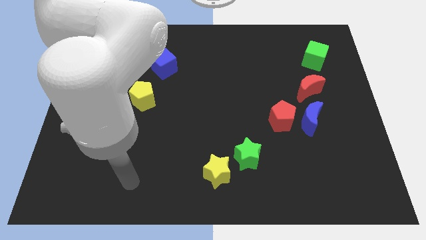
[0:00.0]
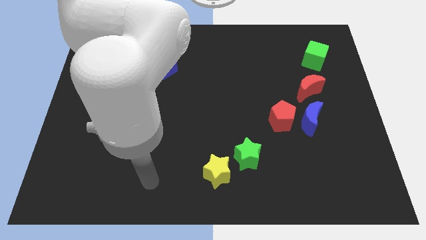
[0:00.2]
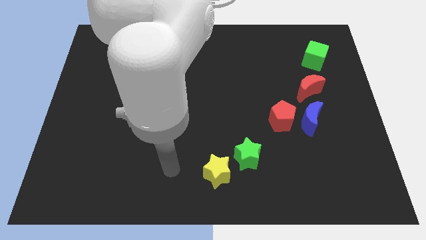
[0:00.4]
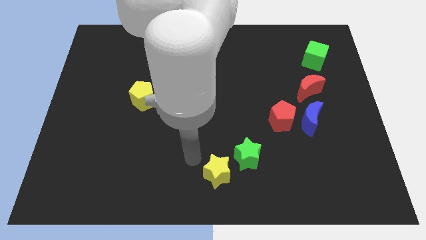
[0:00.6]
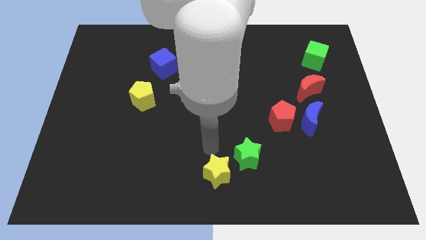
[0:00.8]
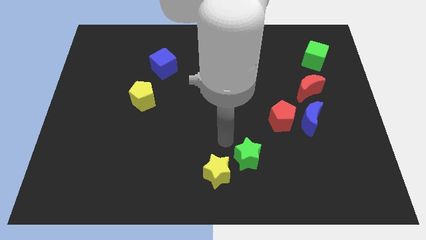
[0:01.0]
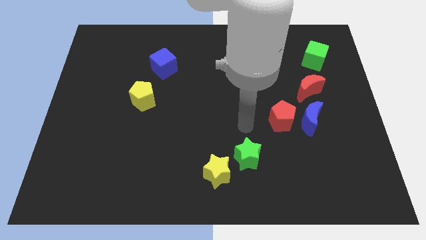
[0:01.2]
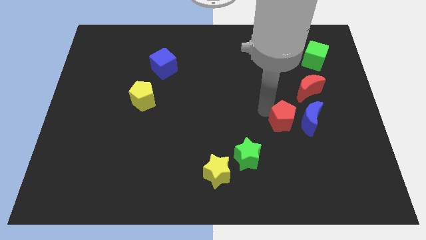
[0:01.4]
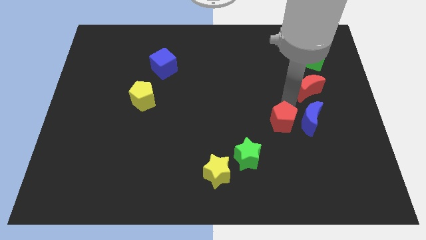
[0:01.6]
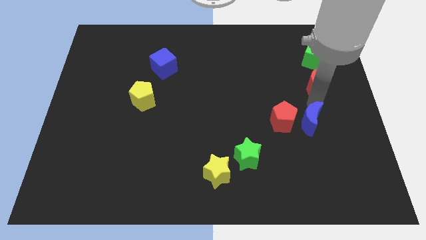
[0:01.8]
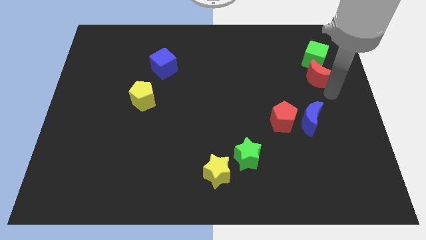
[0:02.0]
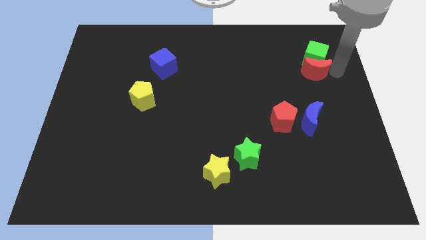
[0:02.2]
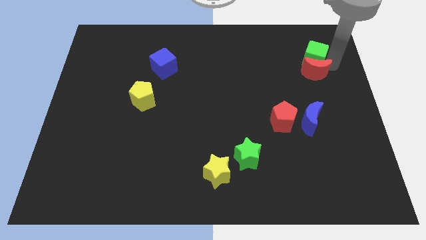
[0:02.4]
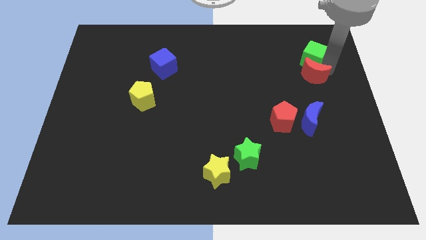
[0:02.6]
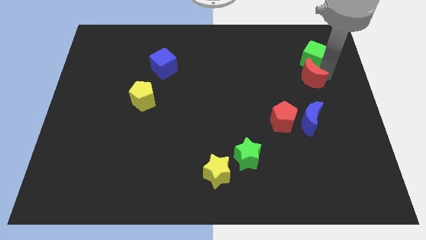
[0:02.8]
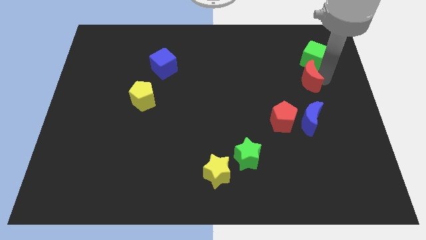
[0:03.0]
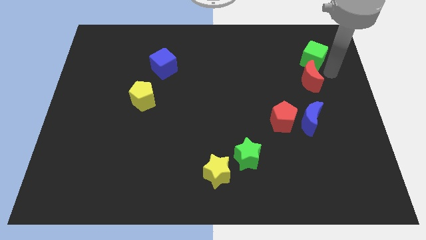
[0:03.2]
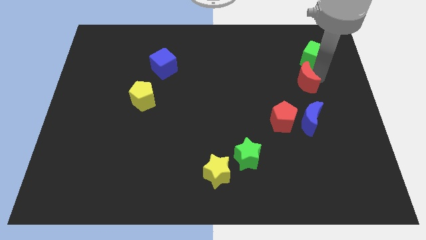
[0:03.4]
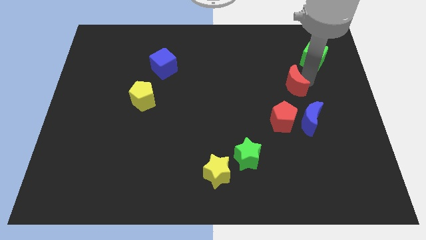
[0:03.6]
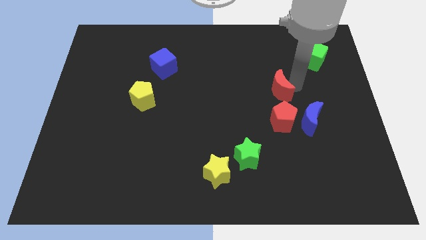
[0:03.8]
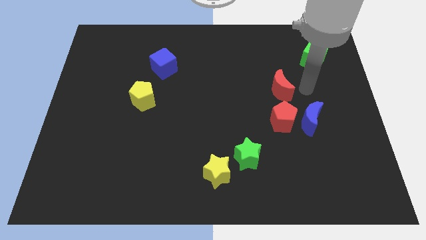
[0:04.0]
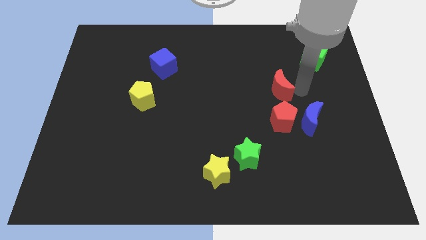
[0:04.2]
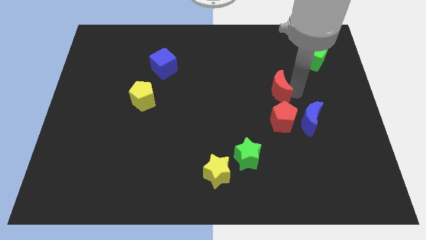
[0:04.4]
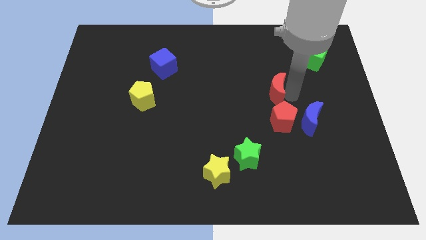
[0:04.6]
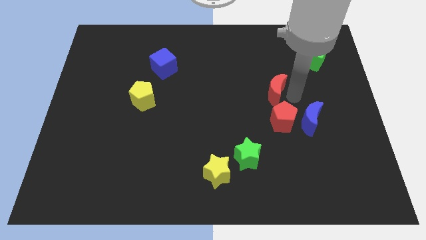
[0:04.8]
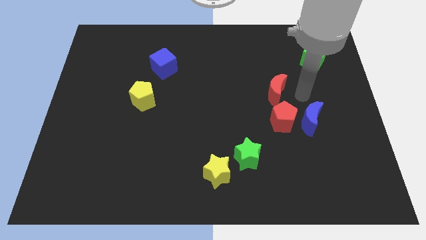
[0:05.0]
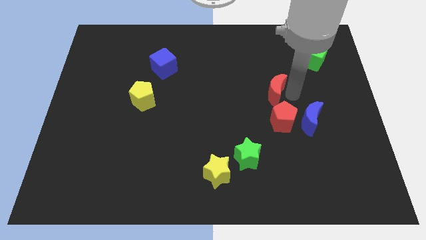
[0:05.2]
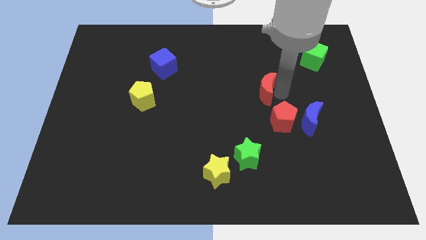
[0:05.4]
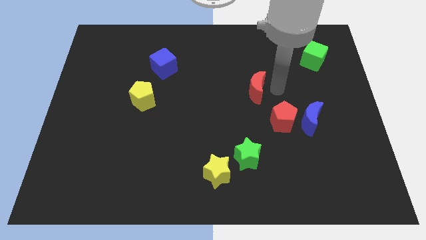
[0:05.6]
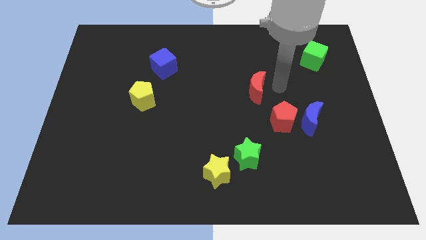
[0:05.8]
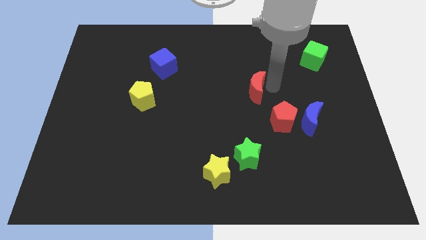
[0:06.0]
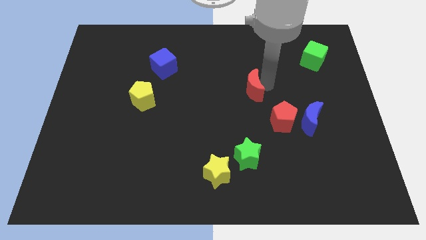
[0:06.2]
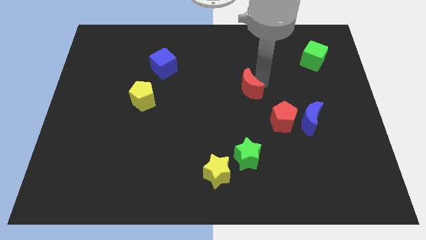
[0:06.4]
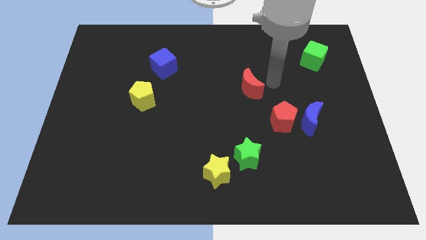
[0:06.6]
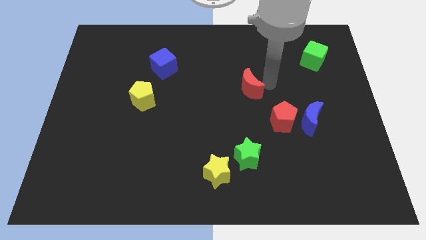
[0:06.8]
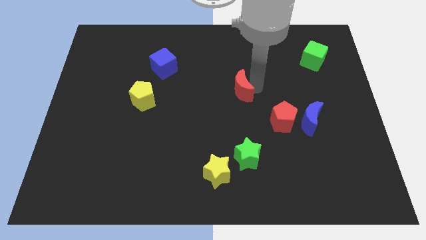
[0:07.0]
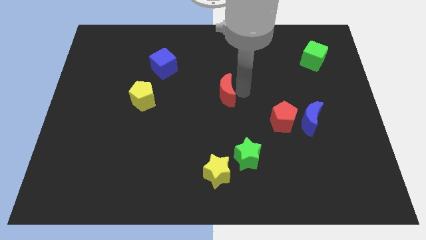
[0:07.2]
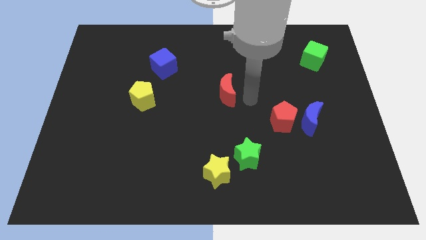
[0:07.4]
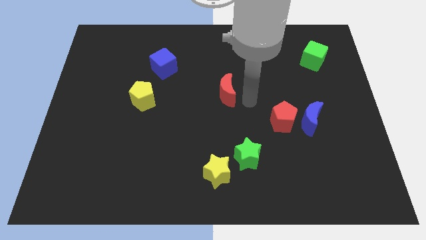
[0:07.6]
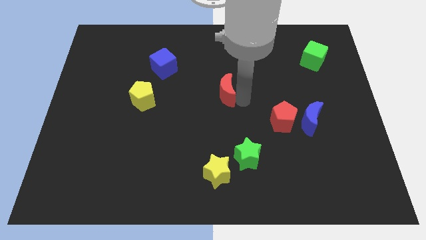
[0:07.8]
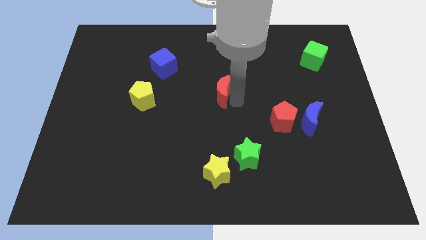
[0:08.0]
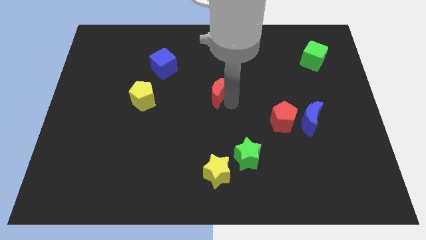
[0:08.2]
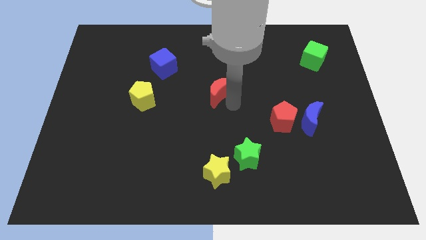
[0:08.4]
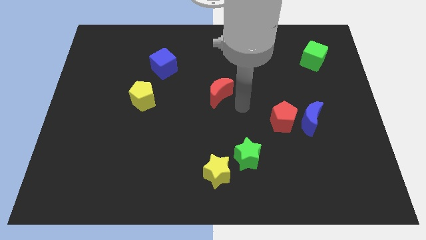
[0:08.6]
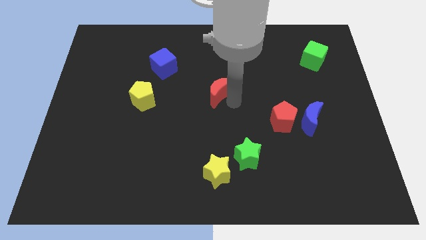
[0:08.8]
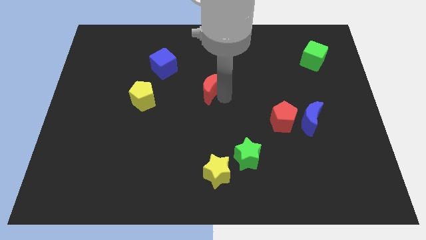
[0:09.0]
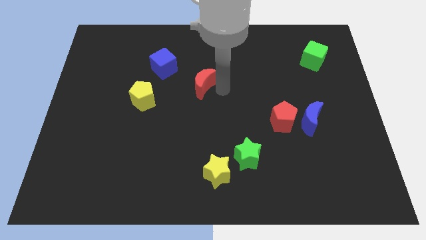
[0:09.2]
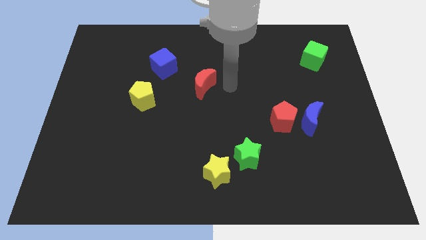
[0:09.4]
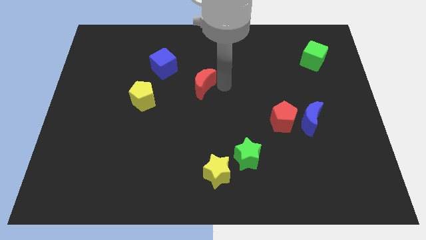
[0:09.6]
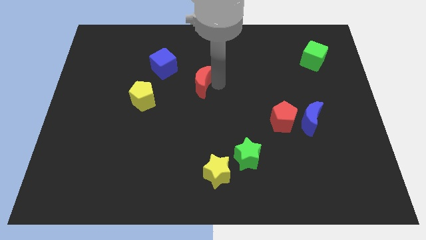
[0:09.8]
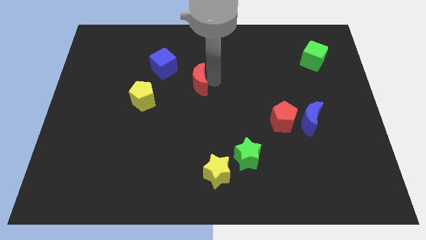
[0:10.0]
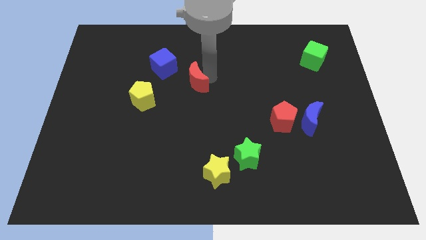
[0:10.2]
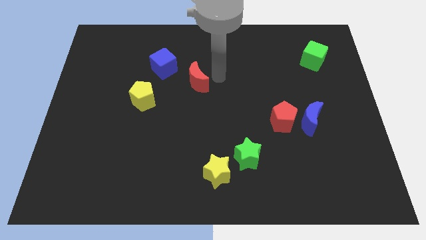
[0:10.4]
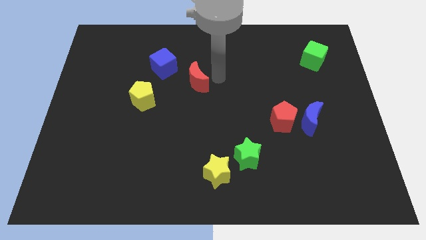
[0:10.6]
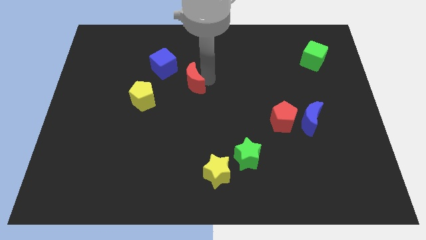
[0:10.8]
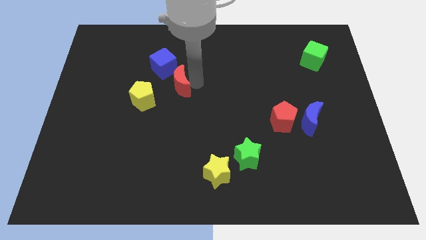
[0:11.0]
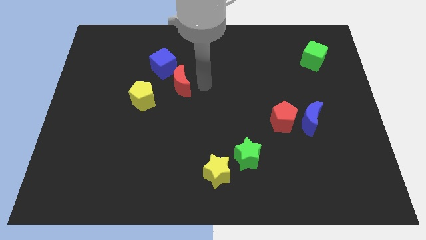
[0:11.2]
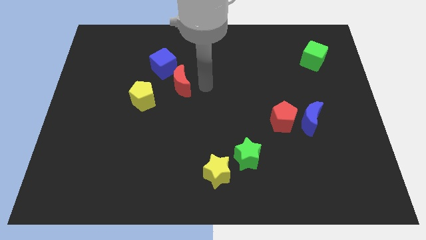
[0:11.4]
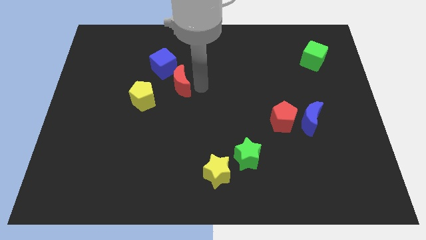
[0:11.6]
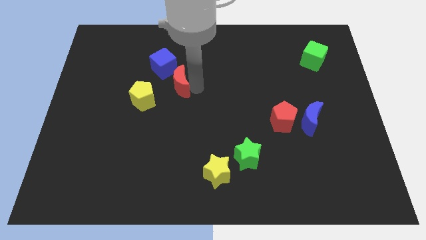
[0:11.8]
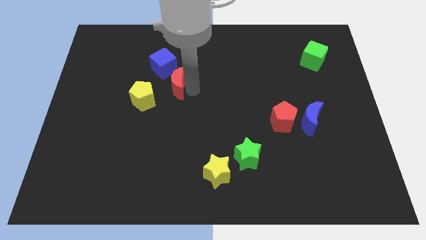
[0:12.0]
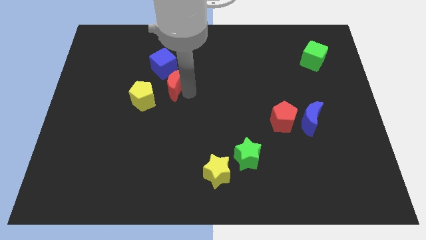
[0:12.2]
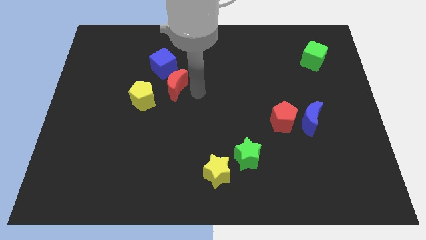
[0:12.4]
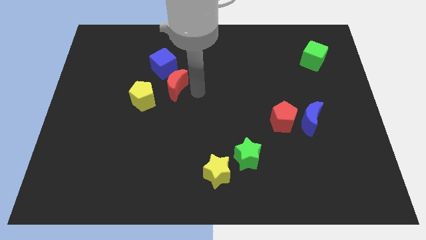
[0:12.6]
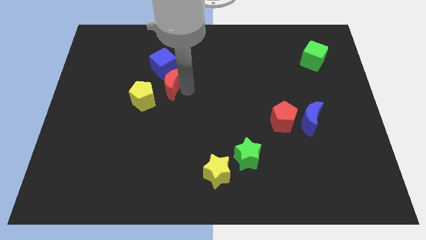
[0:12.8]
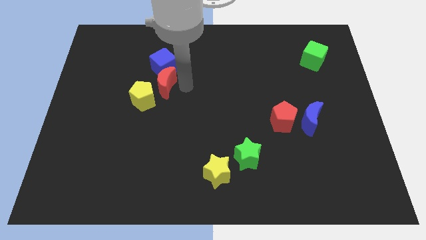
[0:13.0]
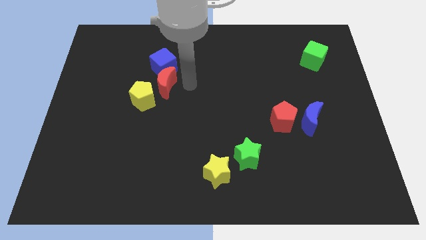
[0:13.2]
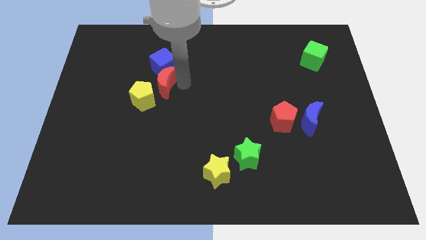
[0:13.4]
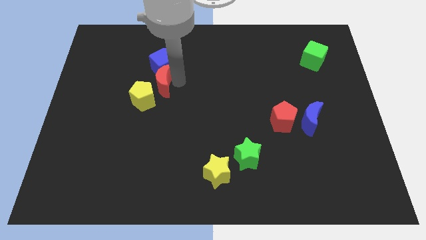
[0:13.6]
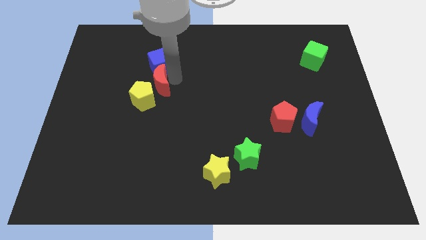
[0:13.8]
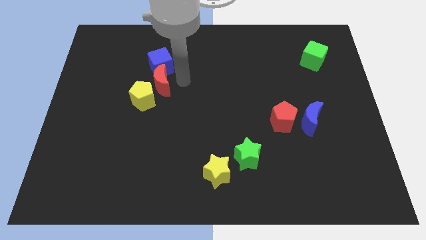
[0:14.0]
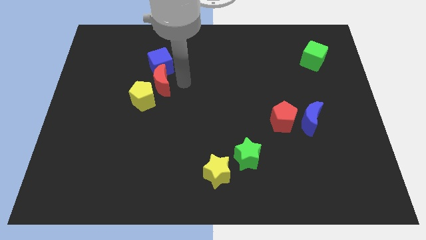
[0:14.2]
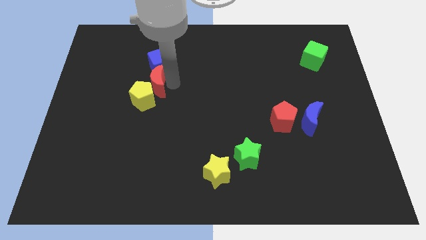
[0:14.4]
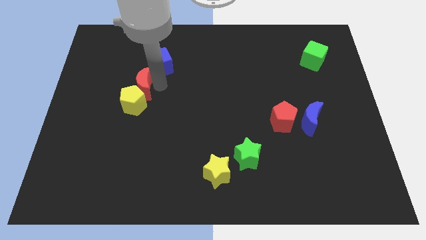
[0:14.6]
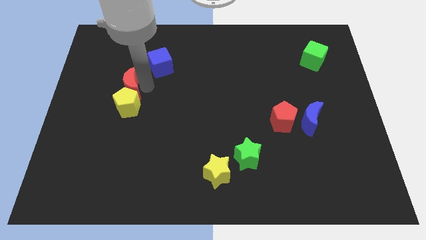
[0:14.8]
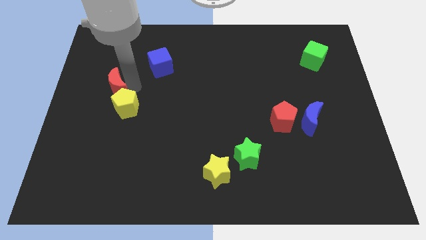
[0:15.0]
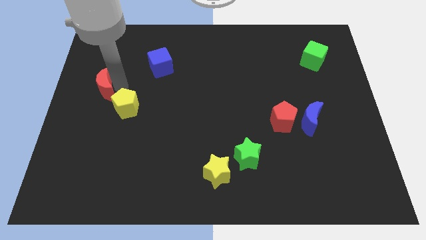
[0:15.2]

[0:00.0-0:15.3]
slide the red moon to the left side of the board
